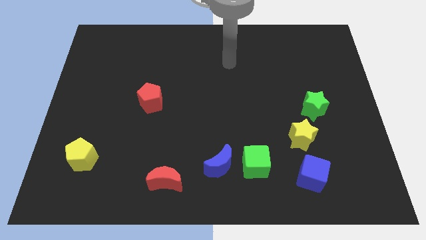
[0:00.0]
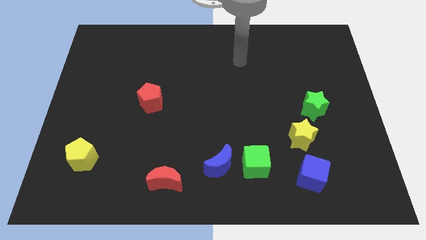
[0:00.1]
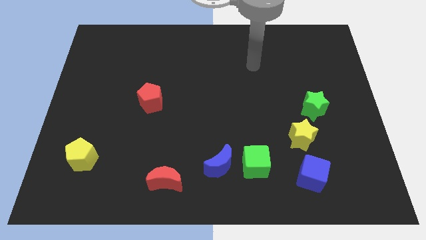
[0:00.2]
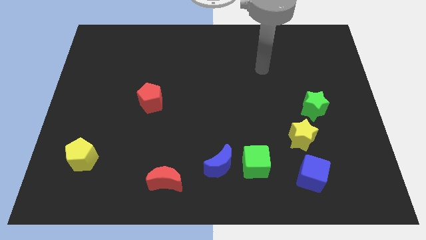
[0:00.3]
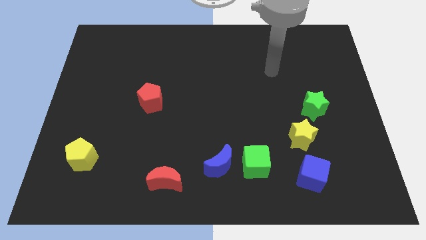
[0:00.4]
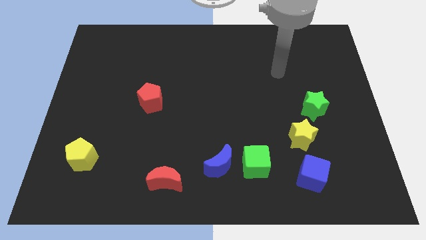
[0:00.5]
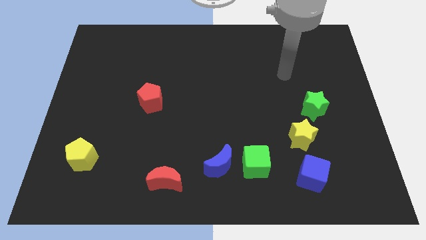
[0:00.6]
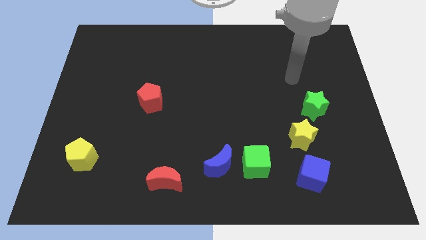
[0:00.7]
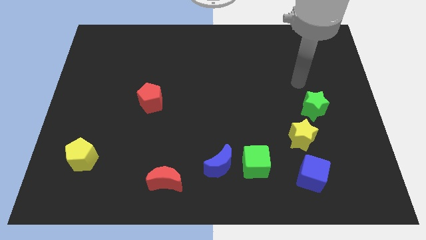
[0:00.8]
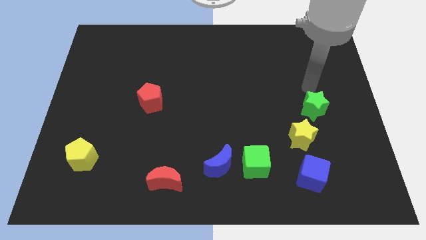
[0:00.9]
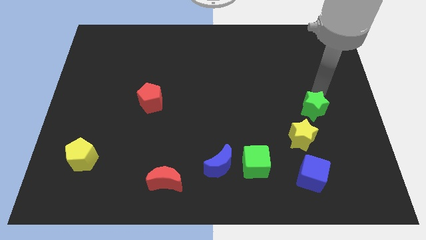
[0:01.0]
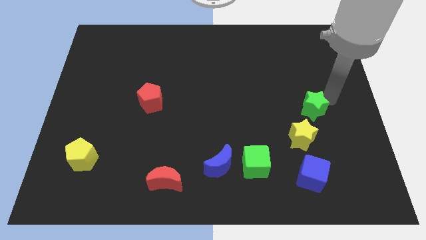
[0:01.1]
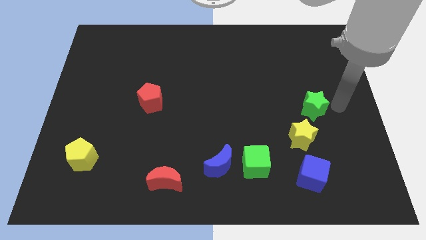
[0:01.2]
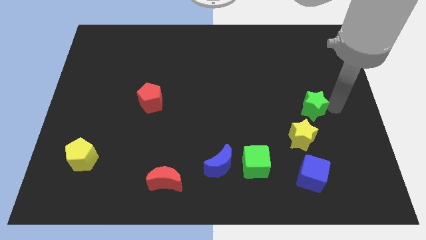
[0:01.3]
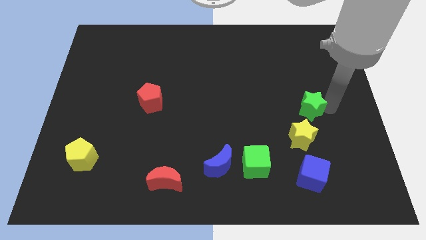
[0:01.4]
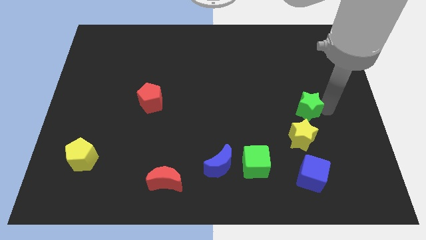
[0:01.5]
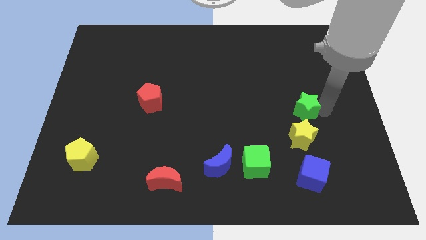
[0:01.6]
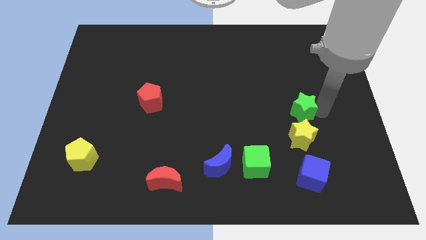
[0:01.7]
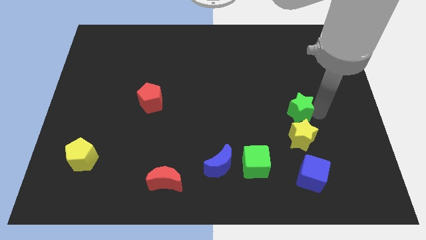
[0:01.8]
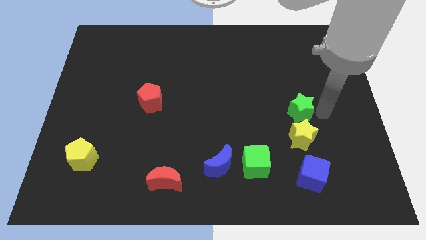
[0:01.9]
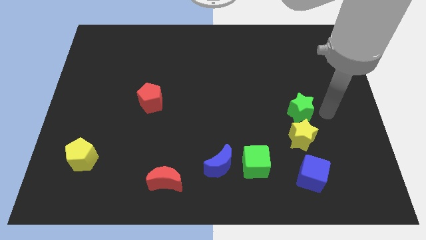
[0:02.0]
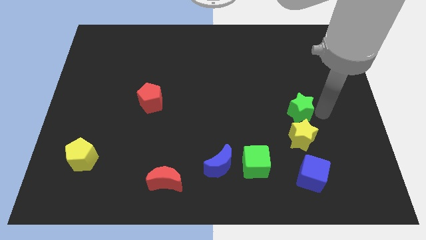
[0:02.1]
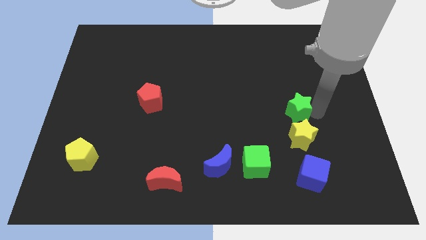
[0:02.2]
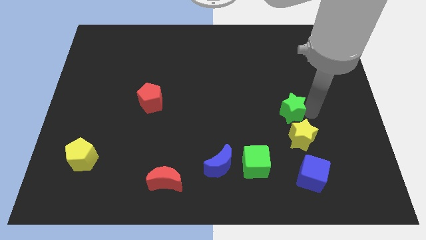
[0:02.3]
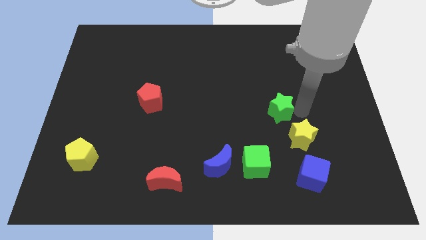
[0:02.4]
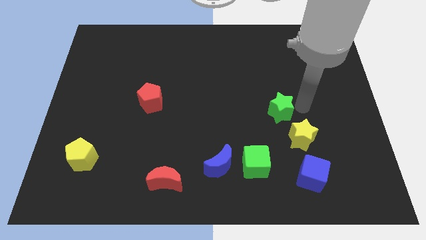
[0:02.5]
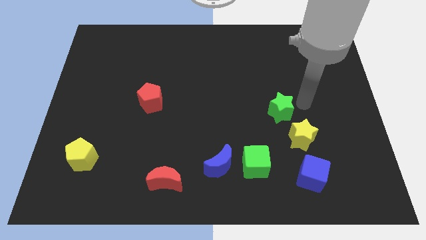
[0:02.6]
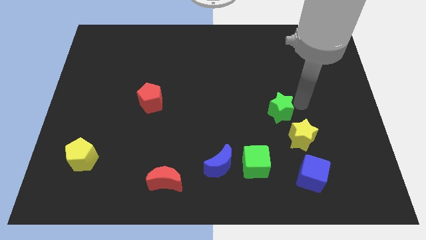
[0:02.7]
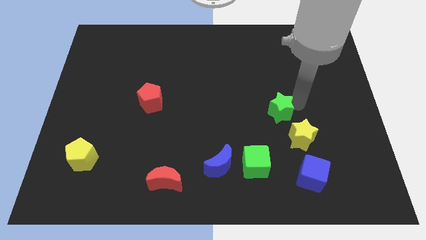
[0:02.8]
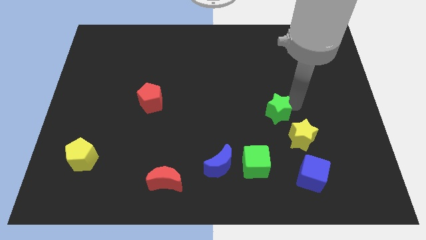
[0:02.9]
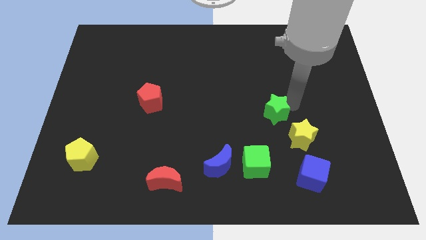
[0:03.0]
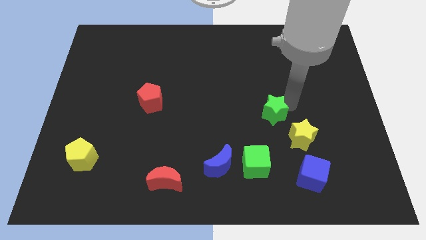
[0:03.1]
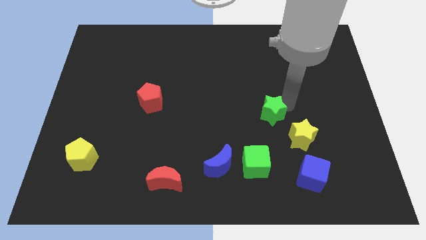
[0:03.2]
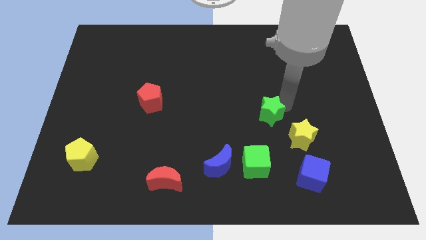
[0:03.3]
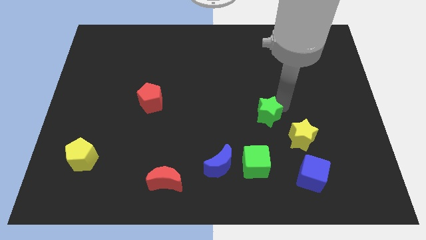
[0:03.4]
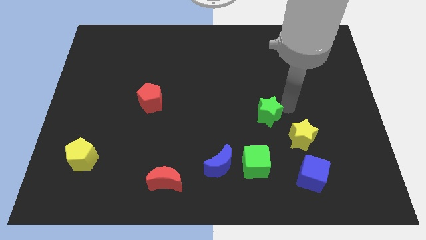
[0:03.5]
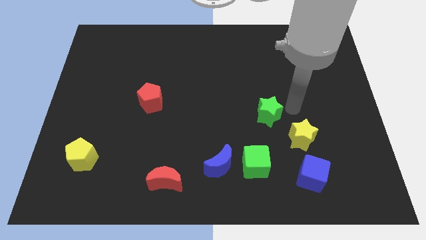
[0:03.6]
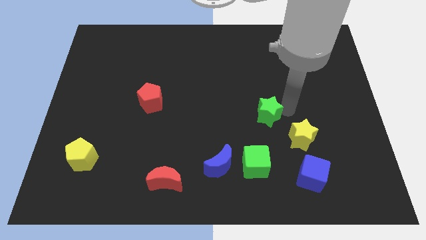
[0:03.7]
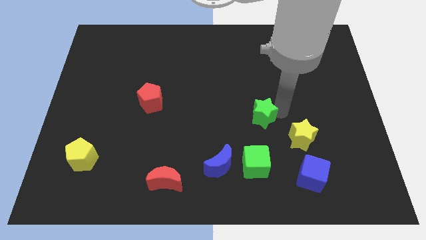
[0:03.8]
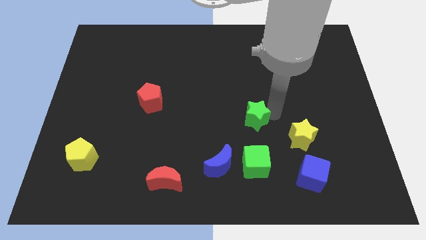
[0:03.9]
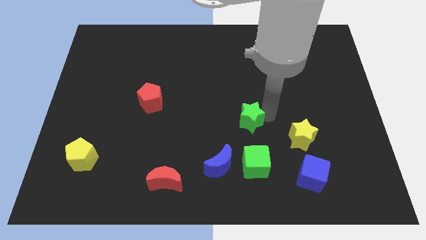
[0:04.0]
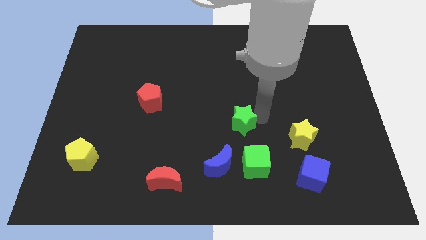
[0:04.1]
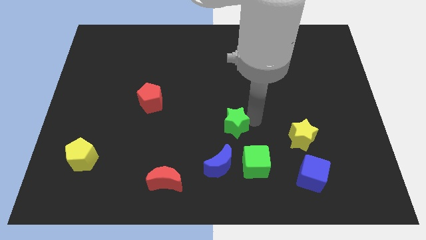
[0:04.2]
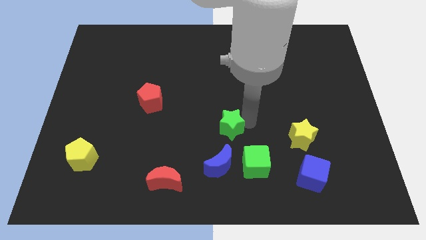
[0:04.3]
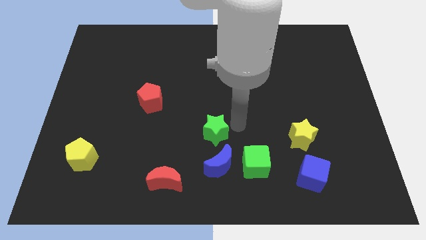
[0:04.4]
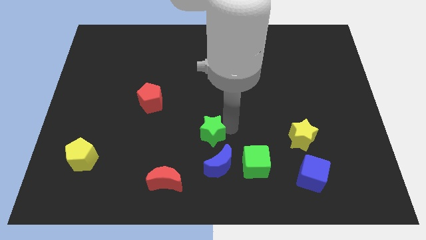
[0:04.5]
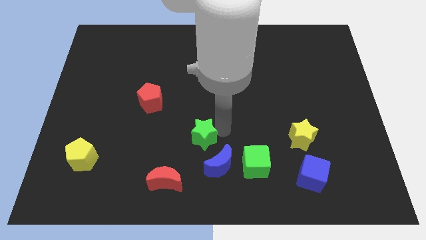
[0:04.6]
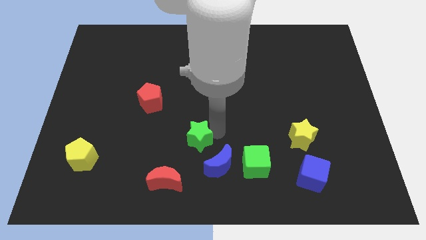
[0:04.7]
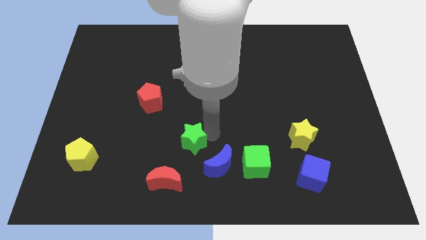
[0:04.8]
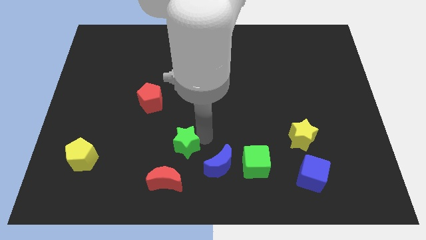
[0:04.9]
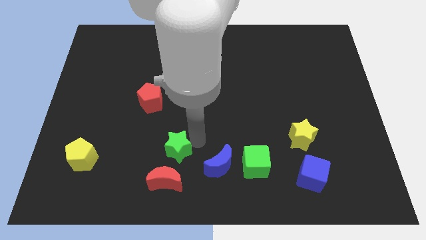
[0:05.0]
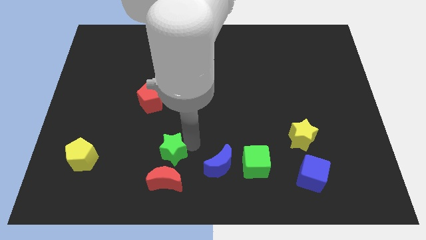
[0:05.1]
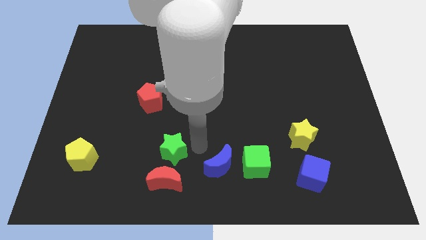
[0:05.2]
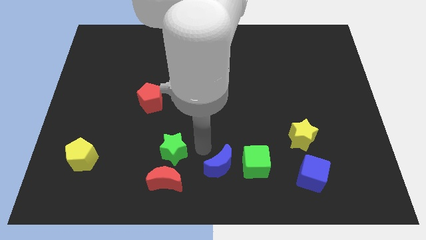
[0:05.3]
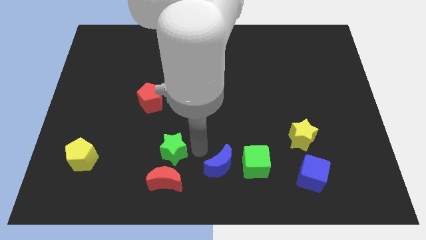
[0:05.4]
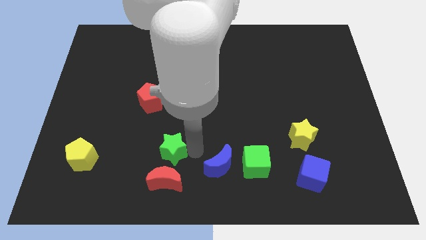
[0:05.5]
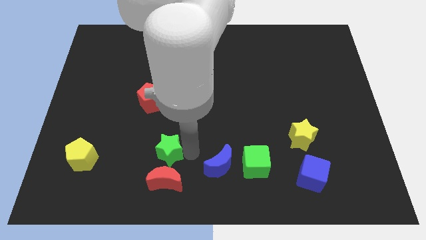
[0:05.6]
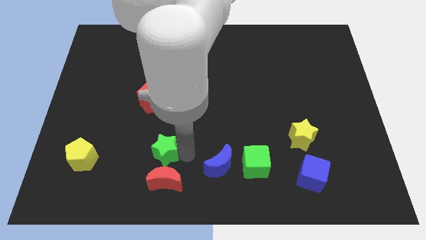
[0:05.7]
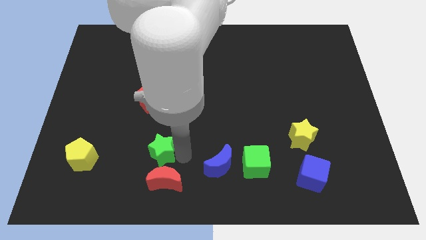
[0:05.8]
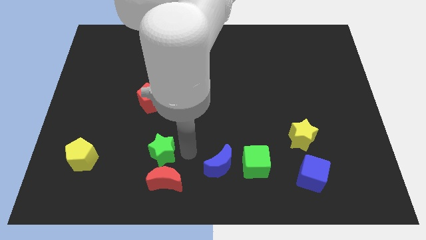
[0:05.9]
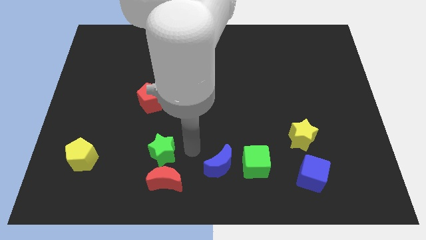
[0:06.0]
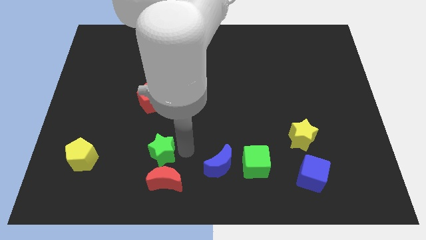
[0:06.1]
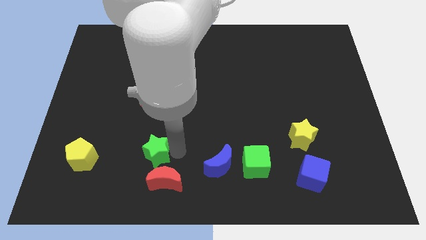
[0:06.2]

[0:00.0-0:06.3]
slide the green star to the right of the yellow pentagon
